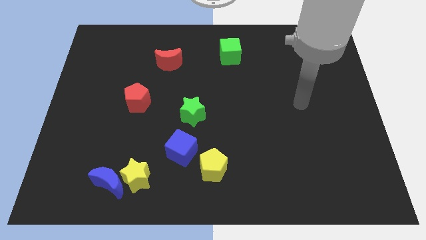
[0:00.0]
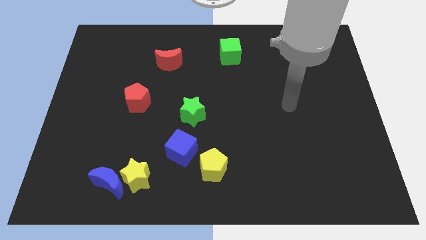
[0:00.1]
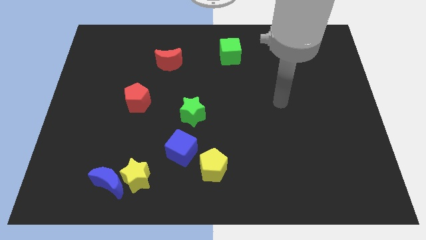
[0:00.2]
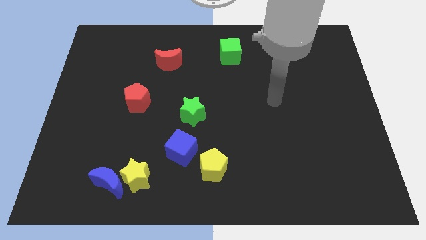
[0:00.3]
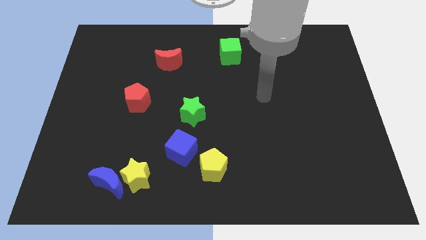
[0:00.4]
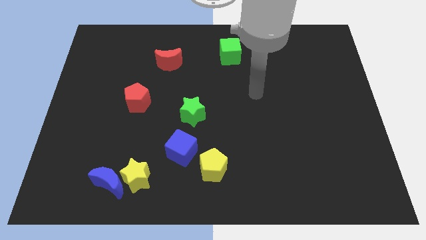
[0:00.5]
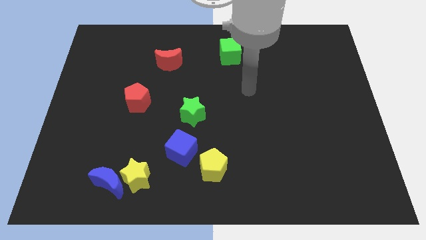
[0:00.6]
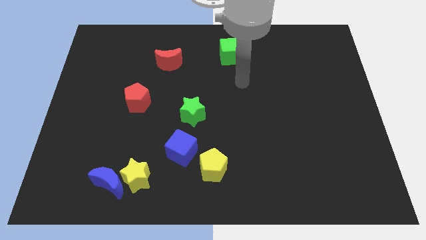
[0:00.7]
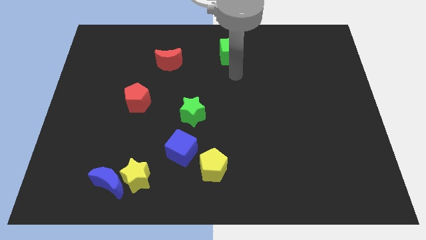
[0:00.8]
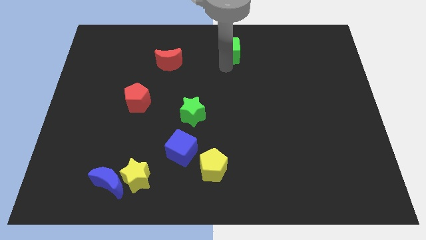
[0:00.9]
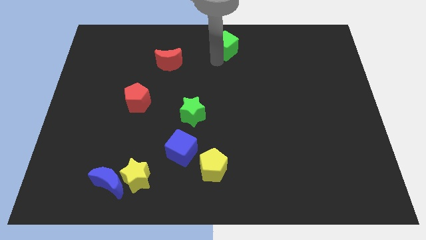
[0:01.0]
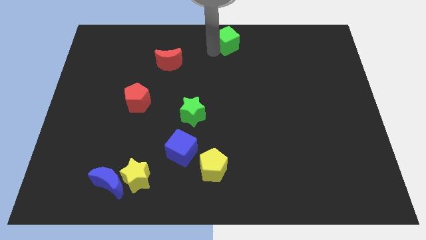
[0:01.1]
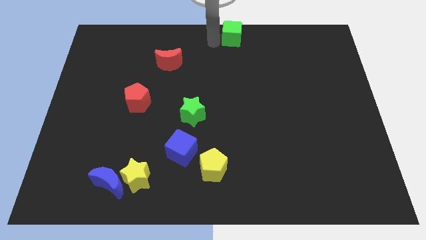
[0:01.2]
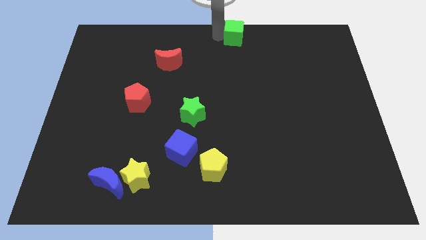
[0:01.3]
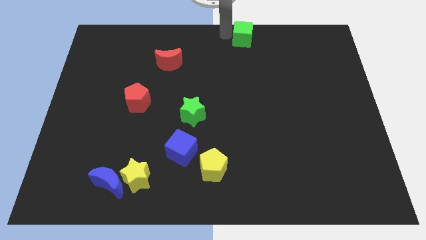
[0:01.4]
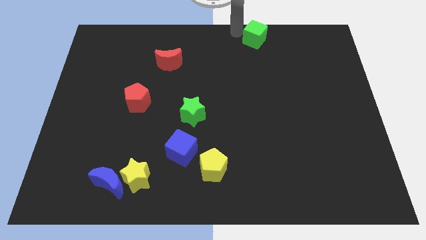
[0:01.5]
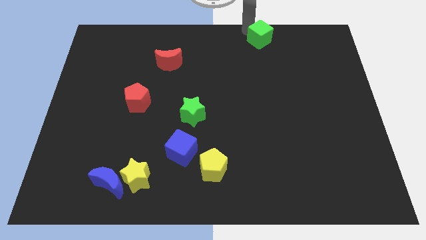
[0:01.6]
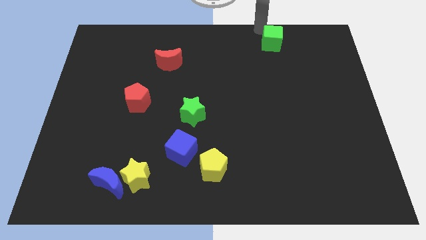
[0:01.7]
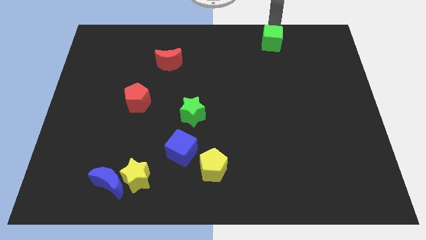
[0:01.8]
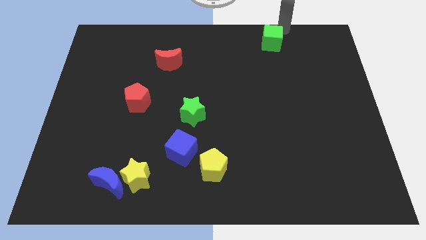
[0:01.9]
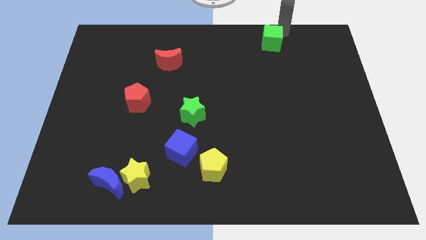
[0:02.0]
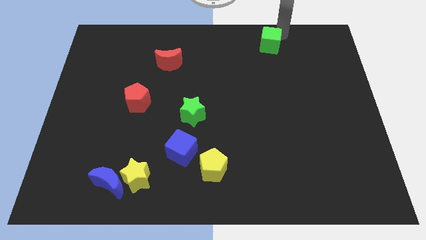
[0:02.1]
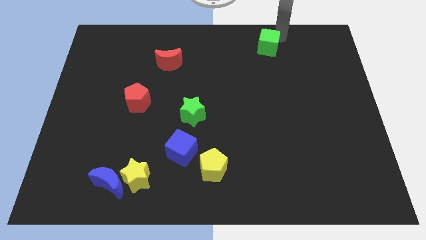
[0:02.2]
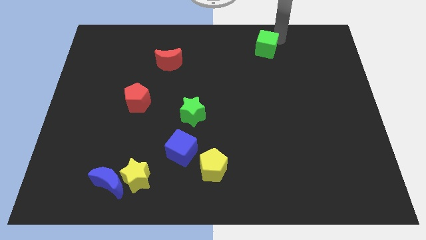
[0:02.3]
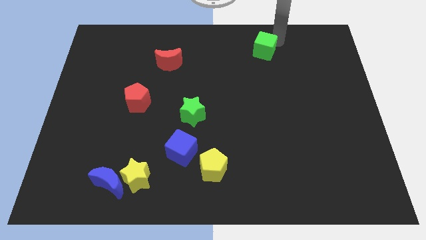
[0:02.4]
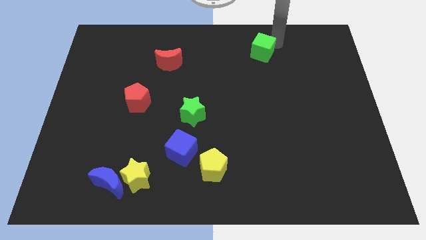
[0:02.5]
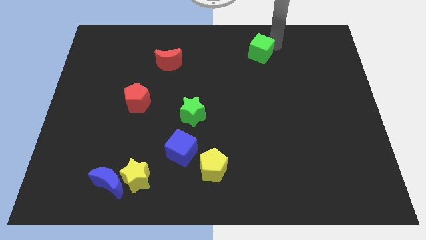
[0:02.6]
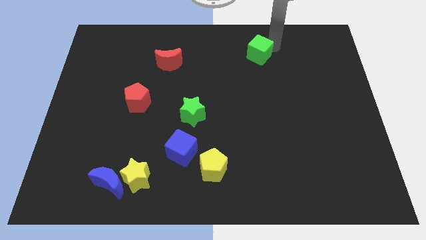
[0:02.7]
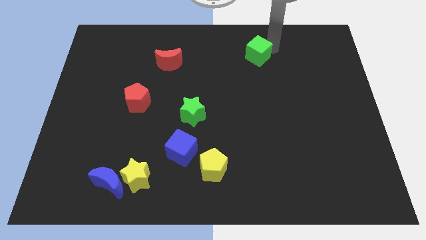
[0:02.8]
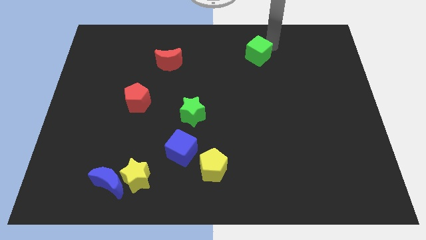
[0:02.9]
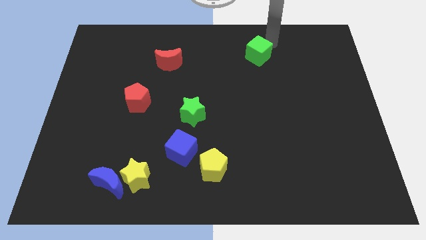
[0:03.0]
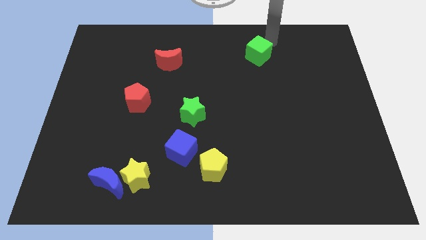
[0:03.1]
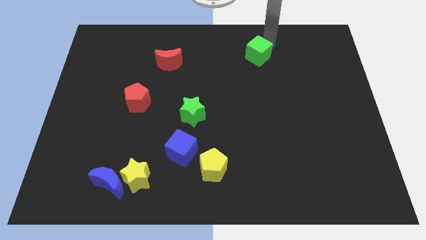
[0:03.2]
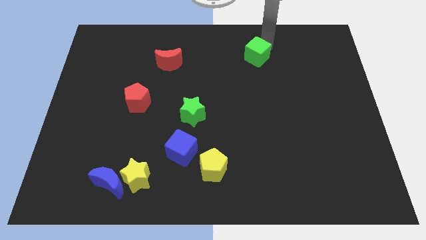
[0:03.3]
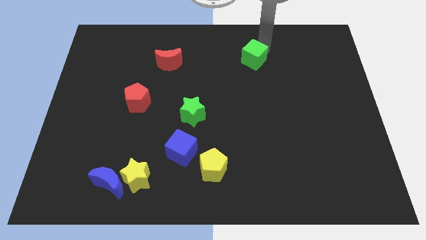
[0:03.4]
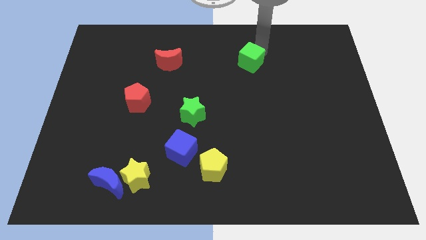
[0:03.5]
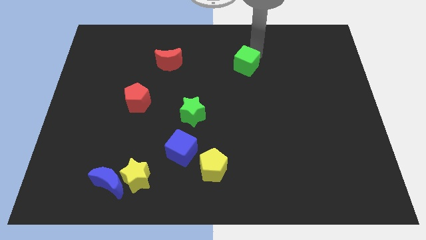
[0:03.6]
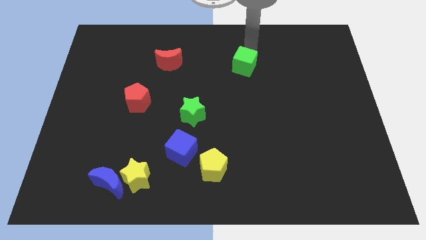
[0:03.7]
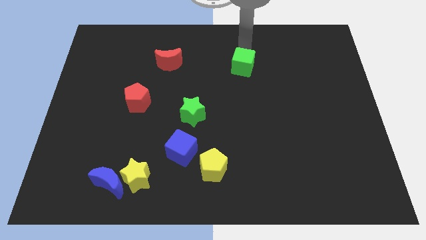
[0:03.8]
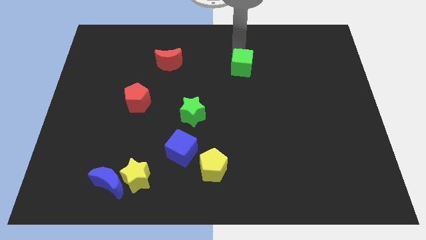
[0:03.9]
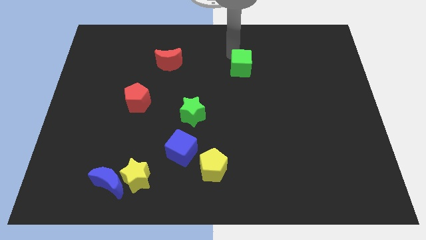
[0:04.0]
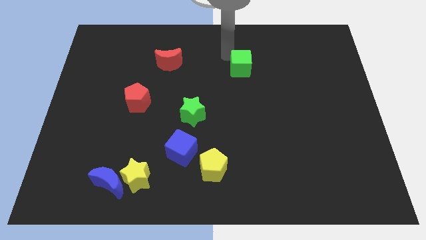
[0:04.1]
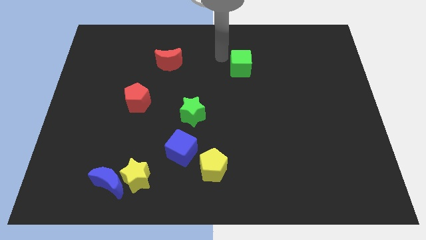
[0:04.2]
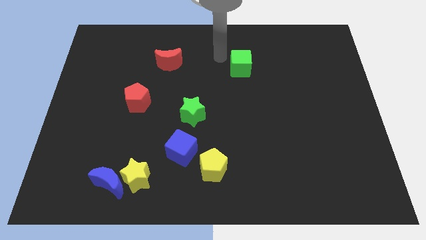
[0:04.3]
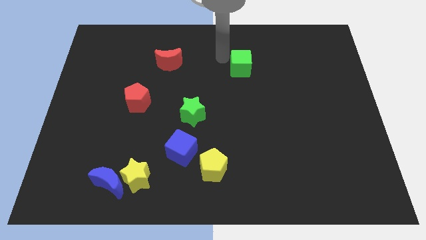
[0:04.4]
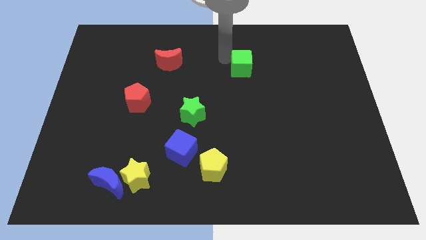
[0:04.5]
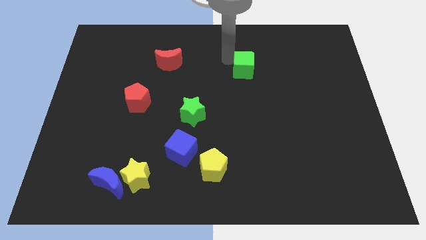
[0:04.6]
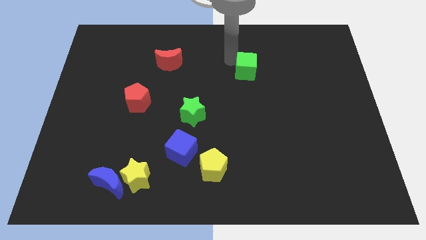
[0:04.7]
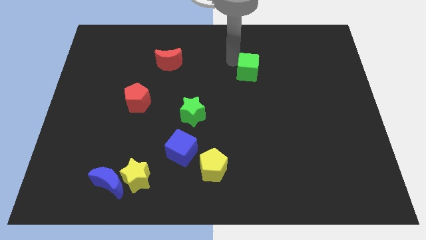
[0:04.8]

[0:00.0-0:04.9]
push the green cube downwards and to the right a bit

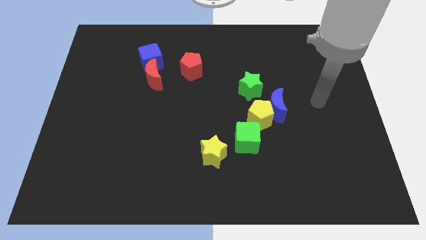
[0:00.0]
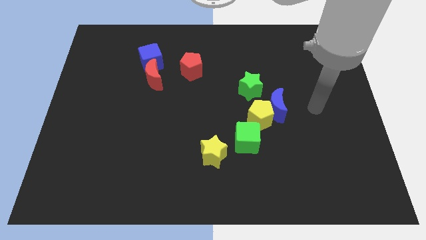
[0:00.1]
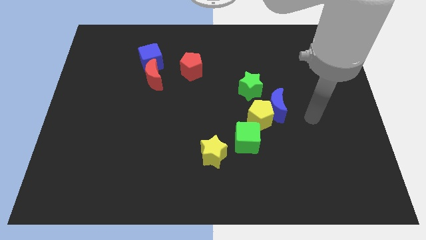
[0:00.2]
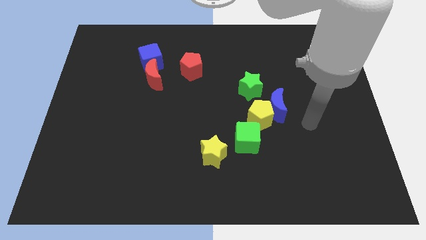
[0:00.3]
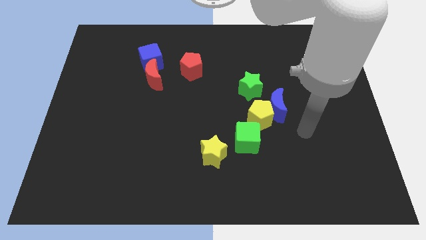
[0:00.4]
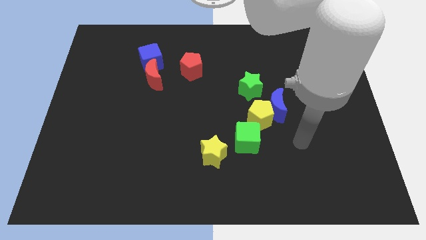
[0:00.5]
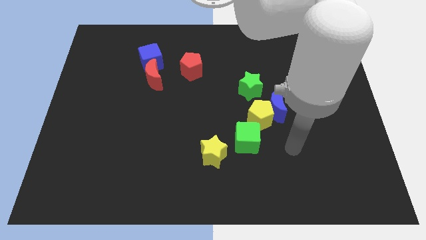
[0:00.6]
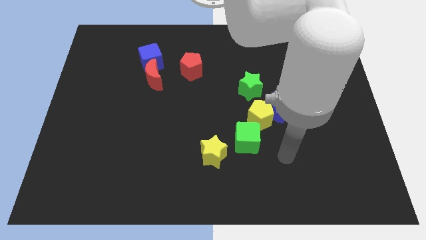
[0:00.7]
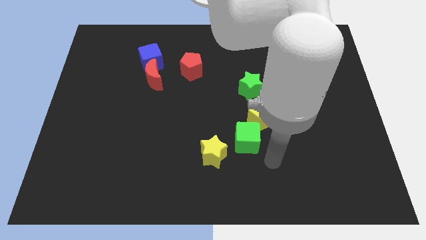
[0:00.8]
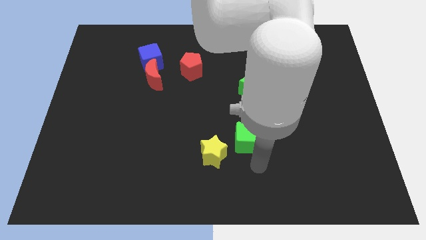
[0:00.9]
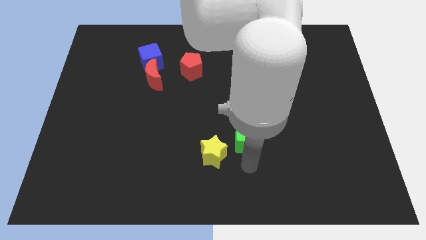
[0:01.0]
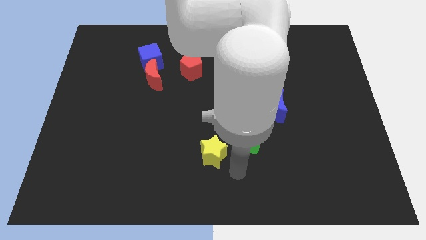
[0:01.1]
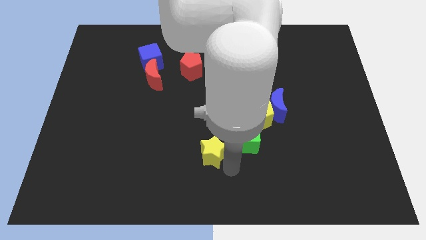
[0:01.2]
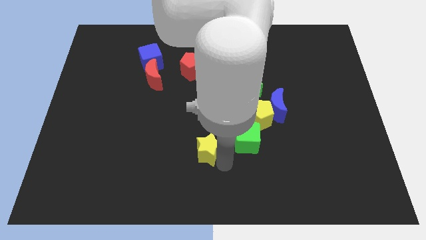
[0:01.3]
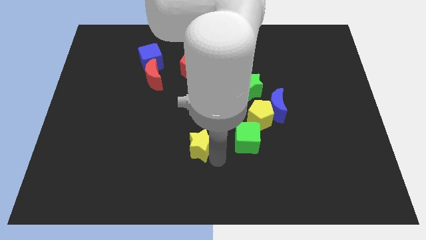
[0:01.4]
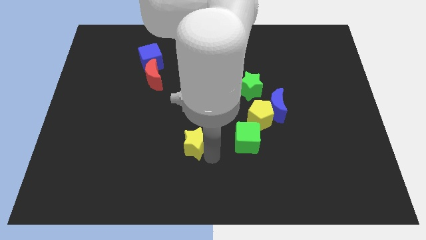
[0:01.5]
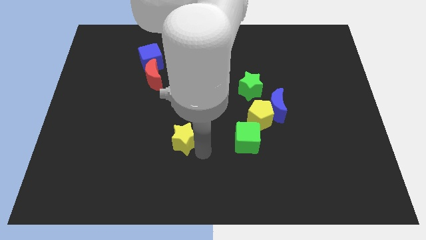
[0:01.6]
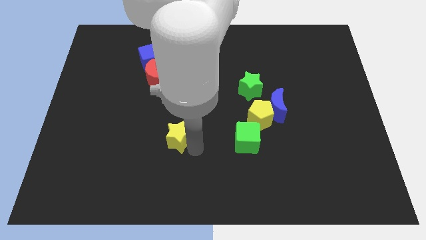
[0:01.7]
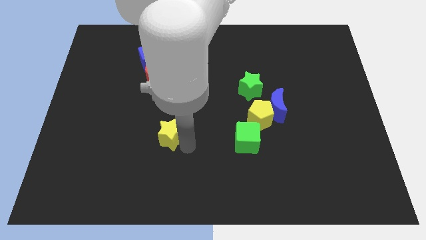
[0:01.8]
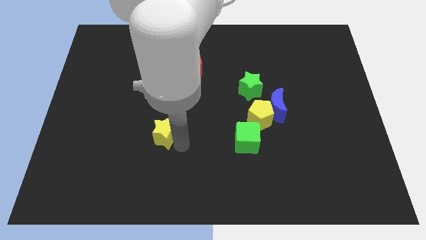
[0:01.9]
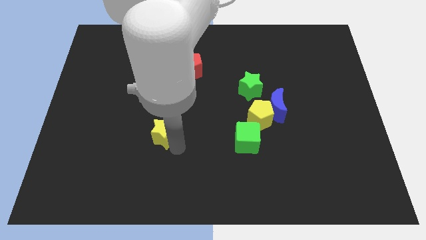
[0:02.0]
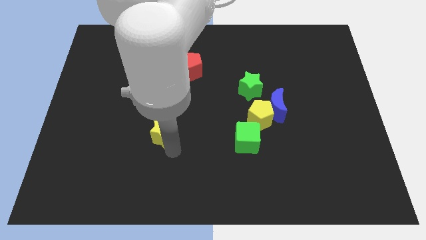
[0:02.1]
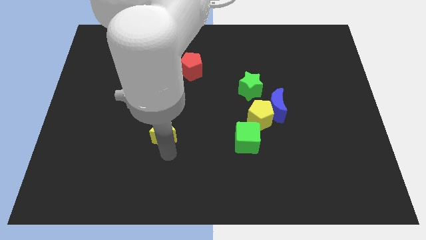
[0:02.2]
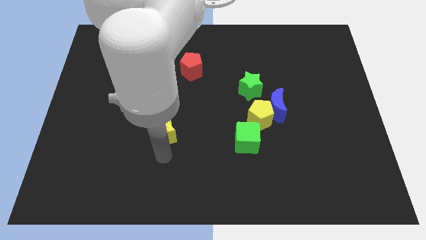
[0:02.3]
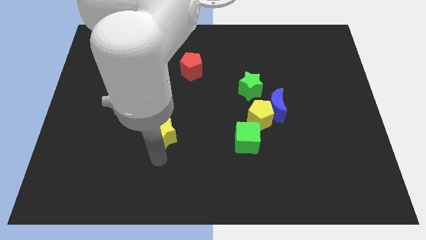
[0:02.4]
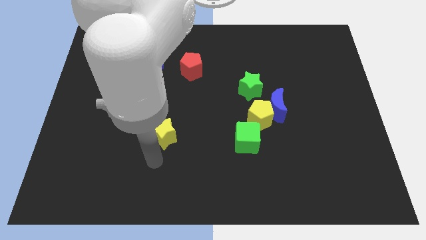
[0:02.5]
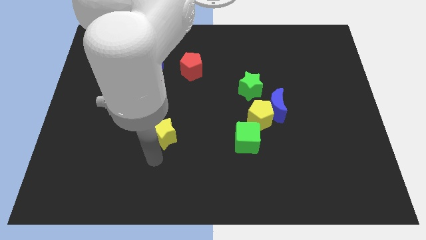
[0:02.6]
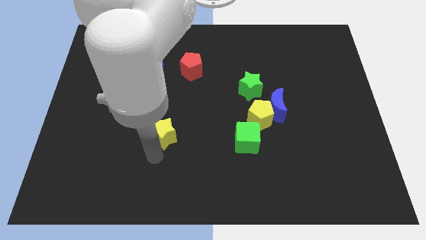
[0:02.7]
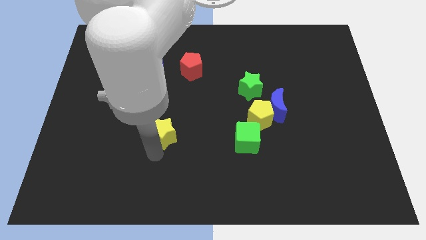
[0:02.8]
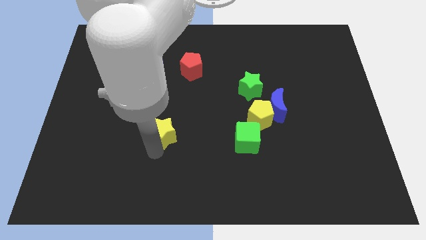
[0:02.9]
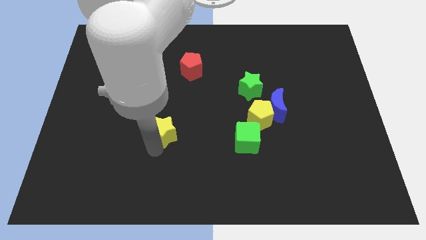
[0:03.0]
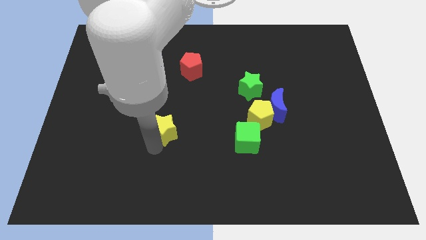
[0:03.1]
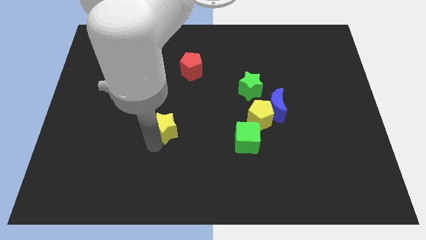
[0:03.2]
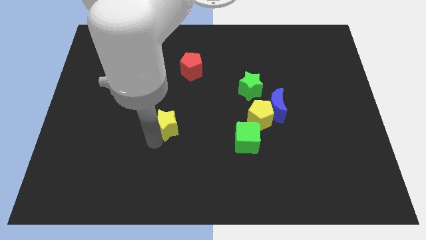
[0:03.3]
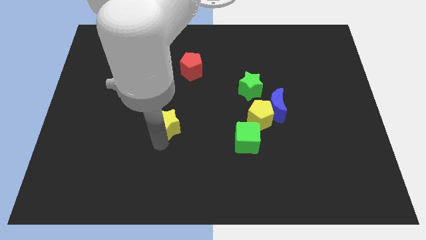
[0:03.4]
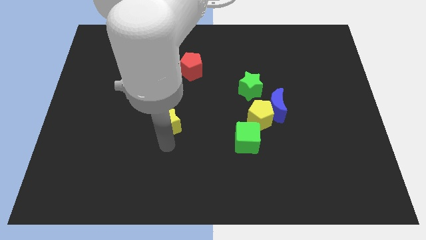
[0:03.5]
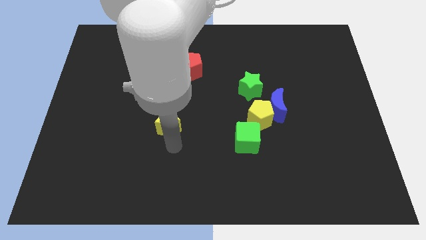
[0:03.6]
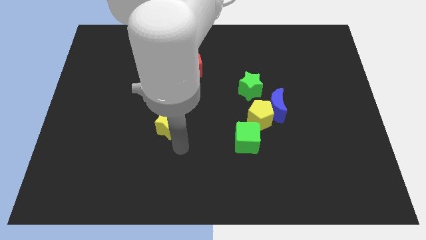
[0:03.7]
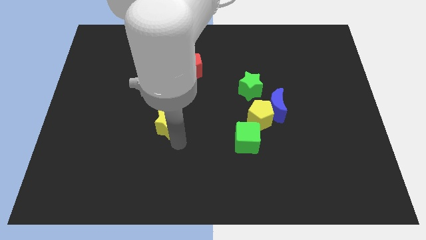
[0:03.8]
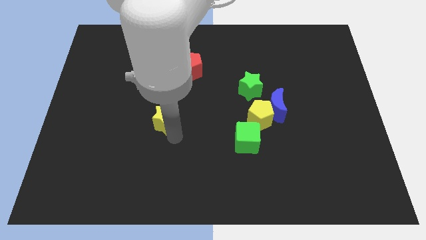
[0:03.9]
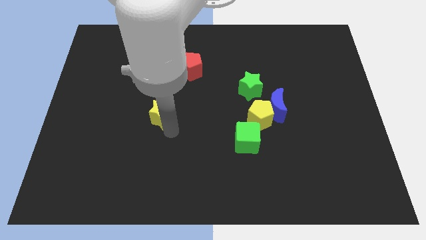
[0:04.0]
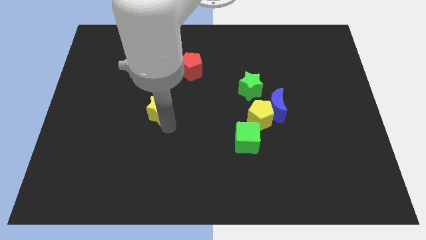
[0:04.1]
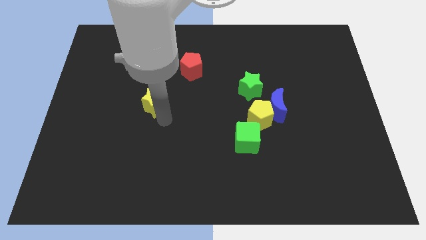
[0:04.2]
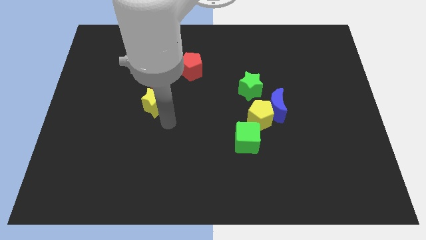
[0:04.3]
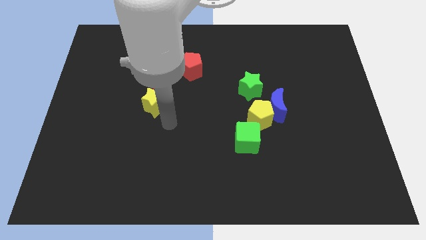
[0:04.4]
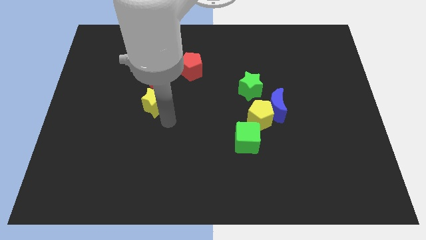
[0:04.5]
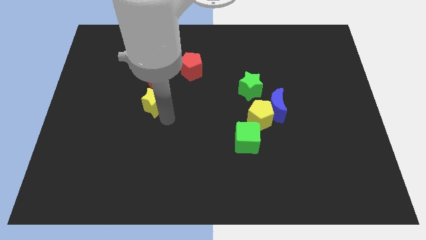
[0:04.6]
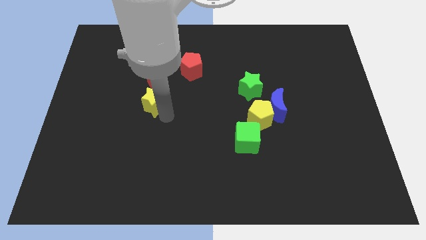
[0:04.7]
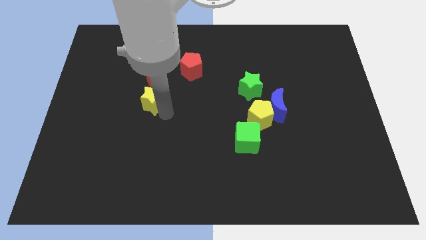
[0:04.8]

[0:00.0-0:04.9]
push the yellow star up and to the left diagonally
